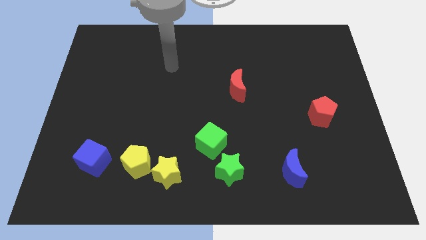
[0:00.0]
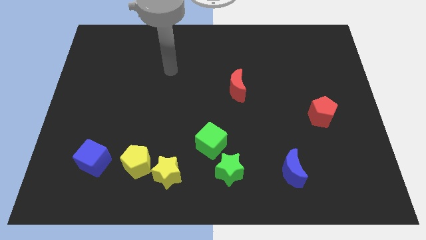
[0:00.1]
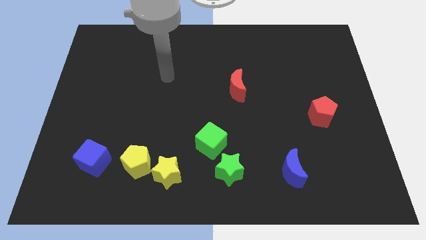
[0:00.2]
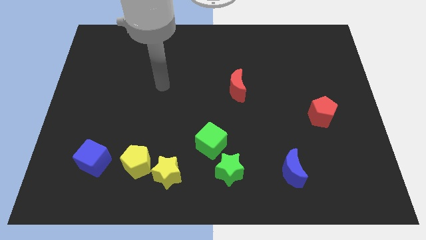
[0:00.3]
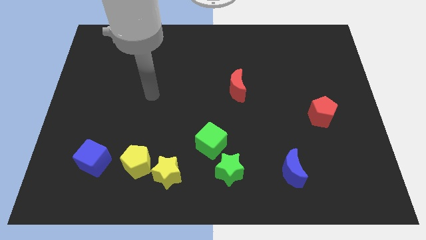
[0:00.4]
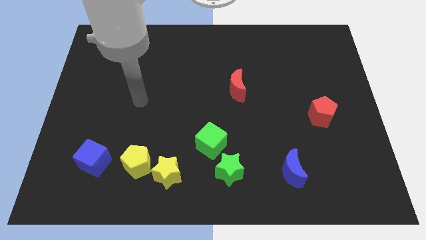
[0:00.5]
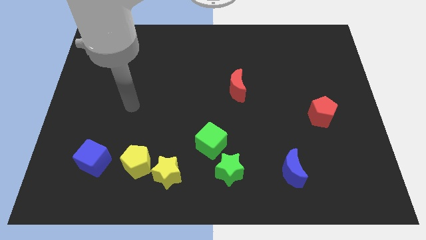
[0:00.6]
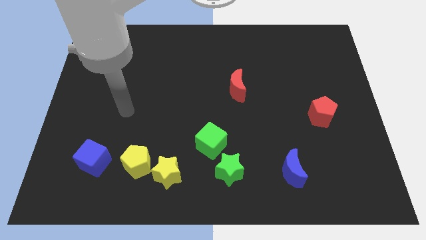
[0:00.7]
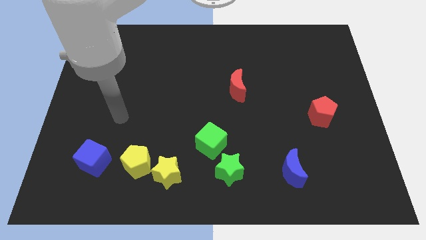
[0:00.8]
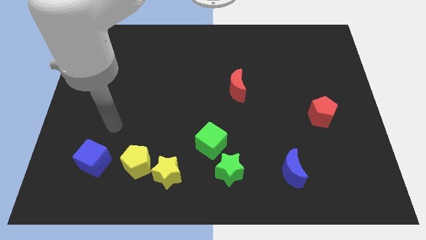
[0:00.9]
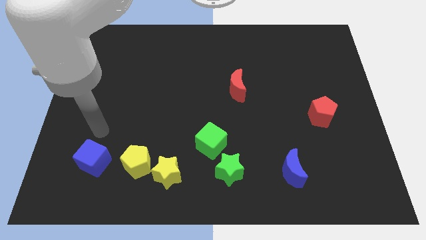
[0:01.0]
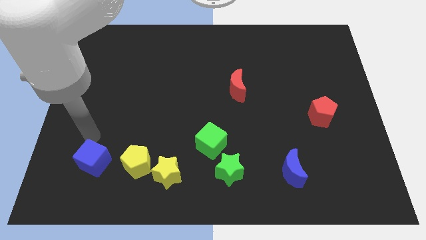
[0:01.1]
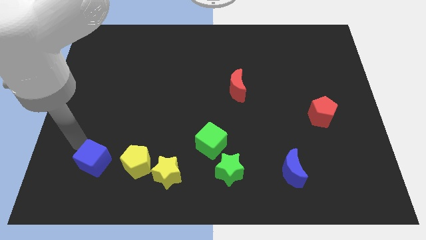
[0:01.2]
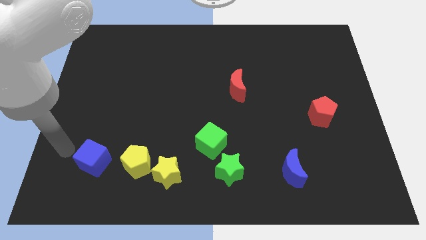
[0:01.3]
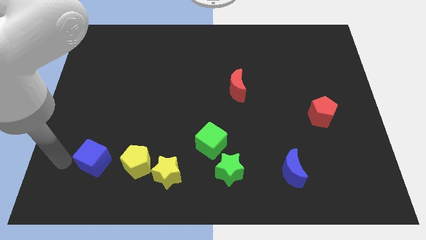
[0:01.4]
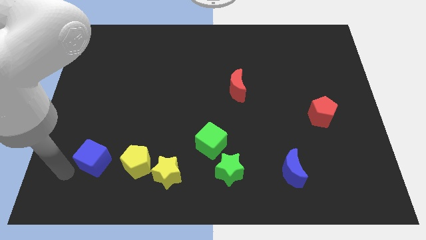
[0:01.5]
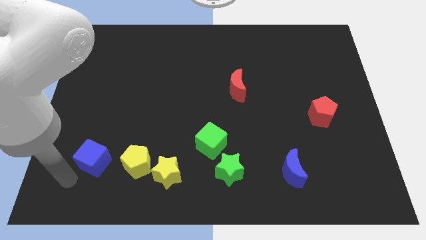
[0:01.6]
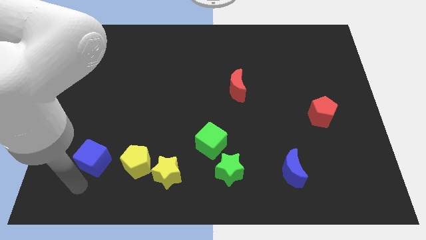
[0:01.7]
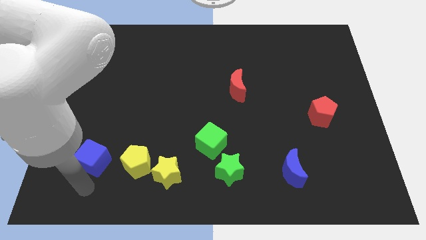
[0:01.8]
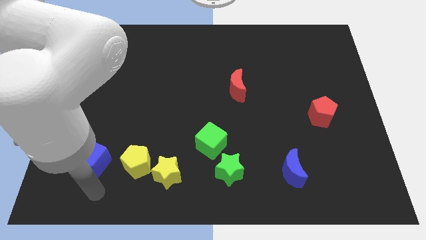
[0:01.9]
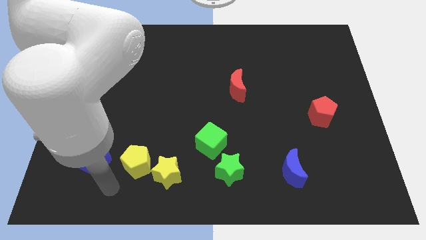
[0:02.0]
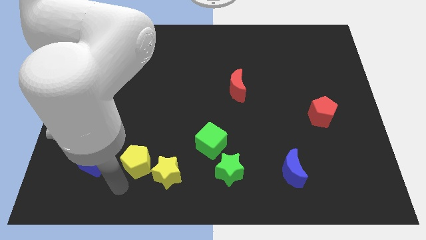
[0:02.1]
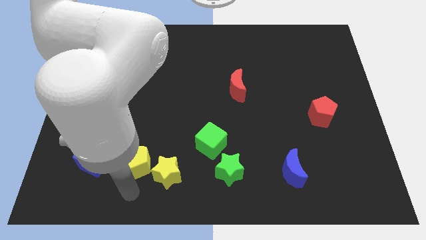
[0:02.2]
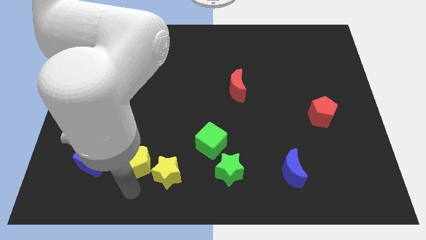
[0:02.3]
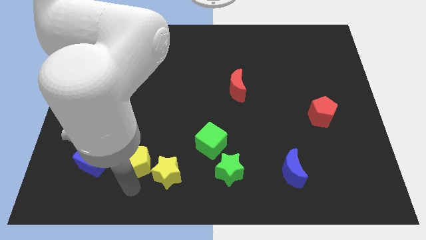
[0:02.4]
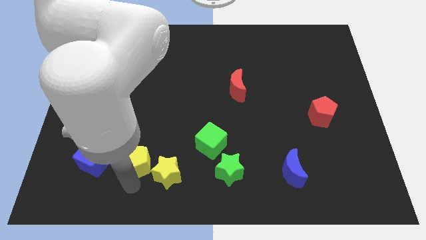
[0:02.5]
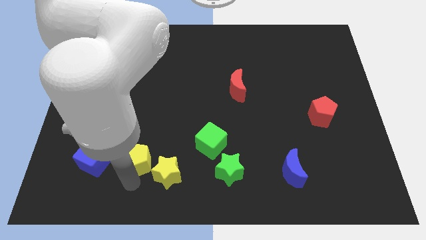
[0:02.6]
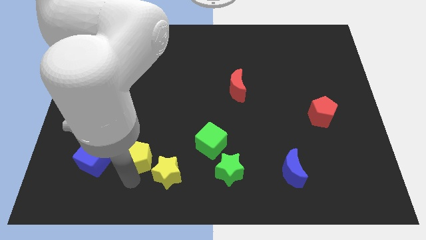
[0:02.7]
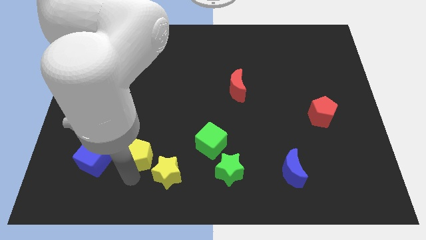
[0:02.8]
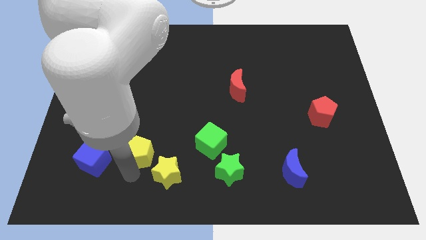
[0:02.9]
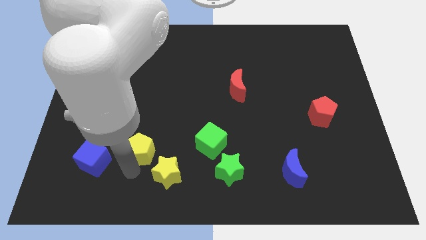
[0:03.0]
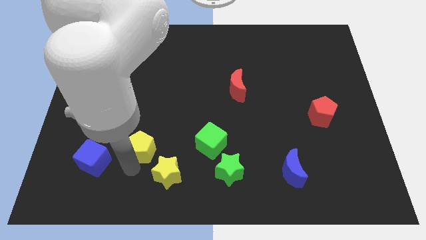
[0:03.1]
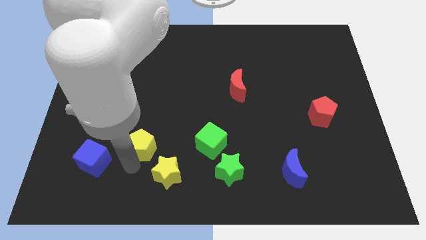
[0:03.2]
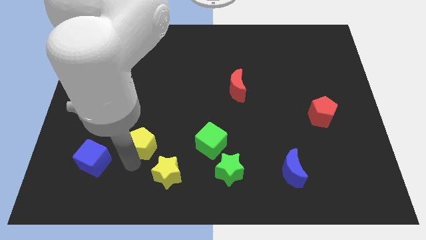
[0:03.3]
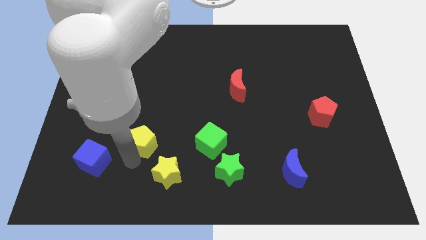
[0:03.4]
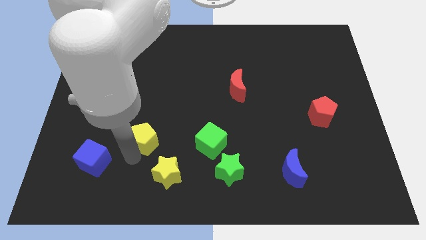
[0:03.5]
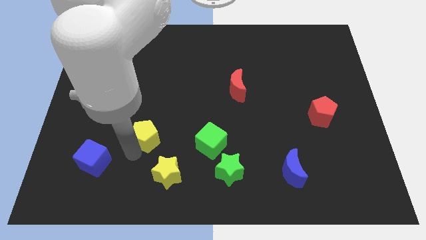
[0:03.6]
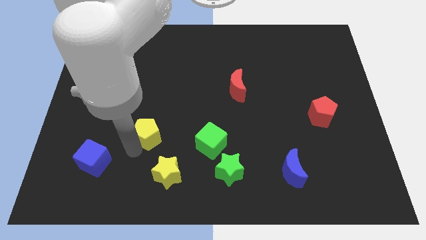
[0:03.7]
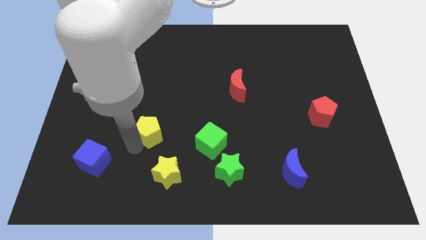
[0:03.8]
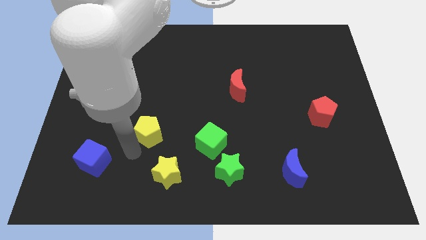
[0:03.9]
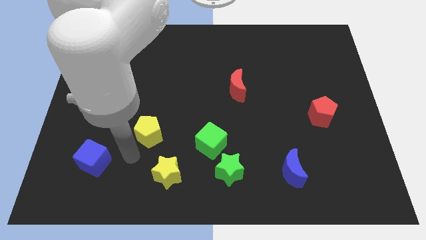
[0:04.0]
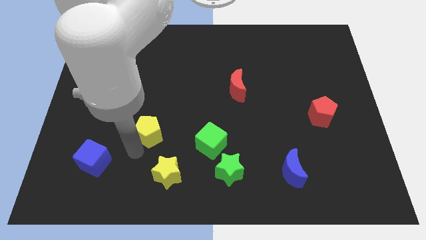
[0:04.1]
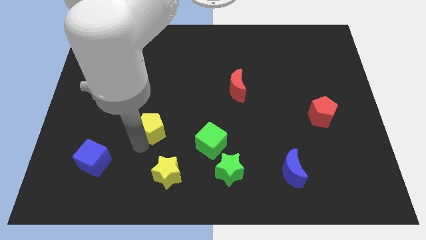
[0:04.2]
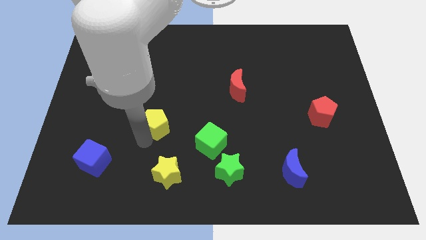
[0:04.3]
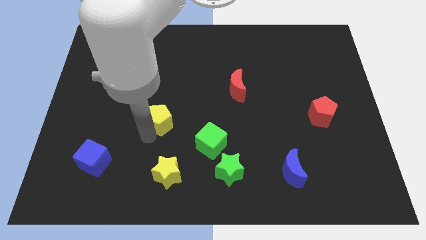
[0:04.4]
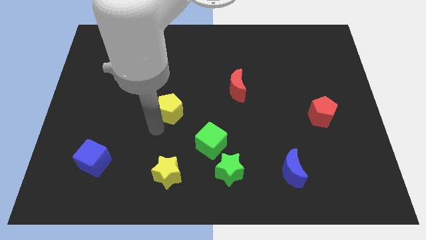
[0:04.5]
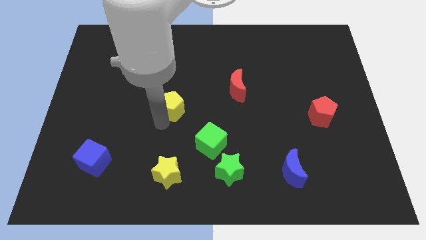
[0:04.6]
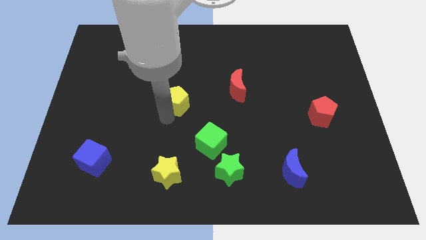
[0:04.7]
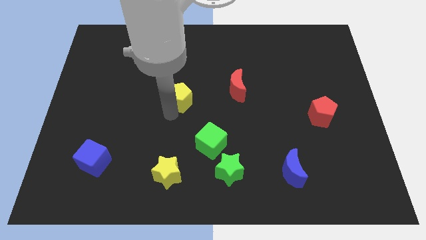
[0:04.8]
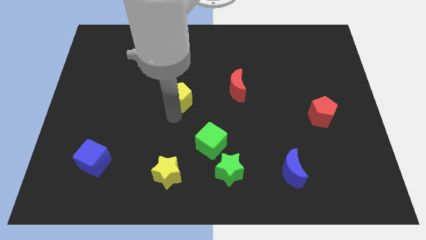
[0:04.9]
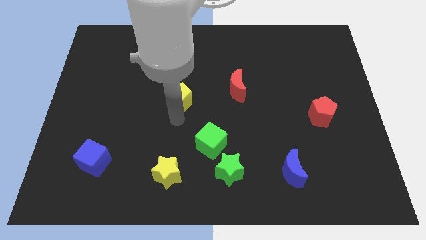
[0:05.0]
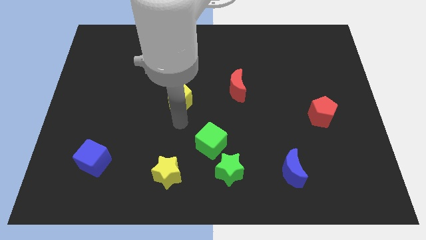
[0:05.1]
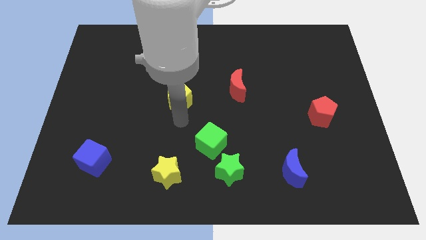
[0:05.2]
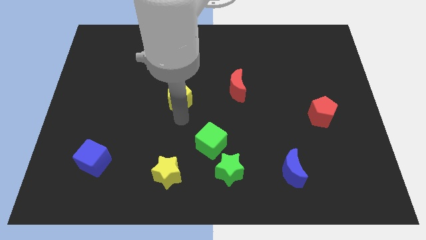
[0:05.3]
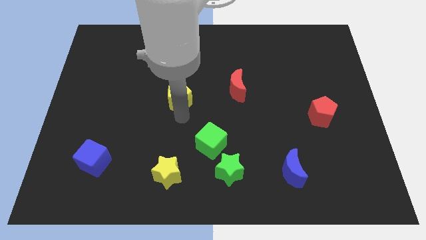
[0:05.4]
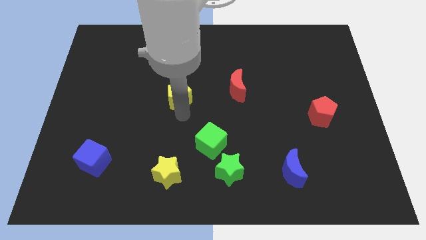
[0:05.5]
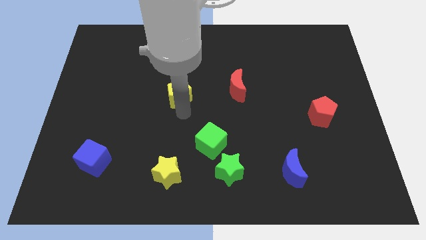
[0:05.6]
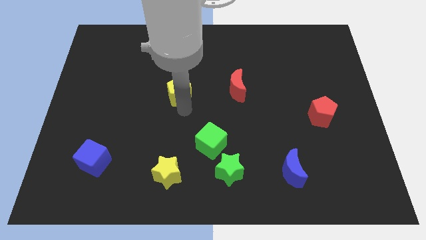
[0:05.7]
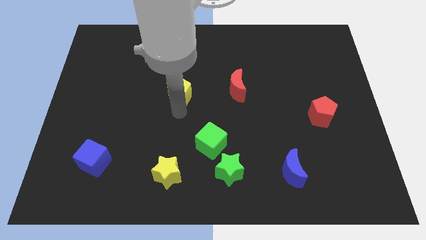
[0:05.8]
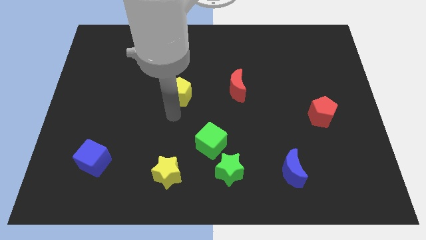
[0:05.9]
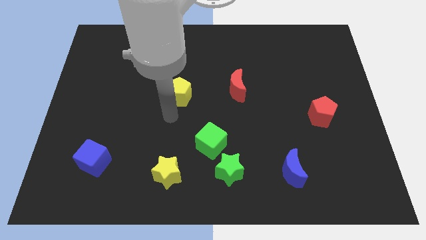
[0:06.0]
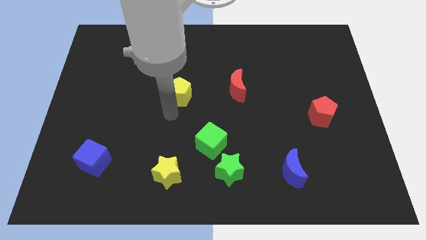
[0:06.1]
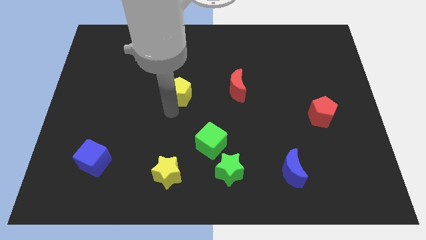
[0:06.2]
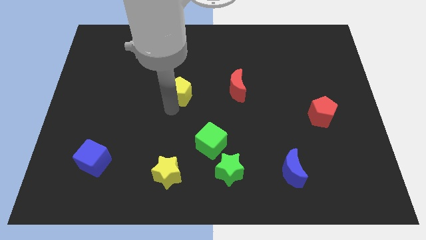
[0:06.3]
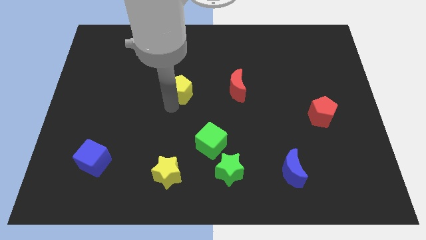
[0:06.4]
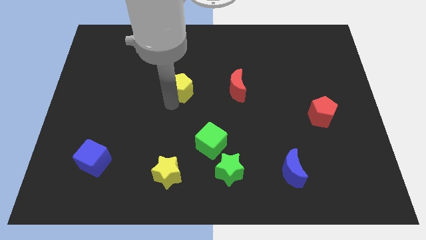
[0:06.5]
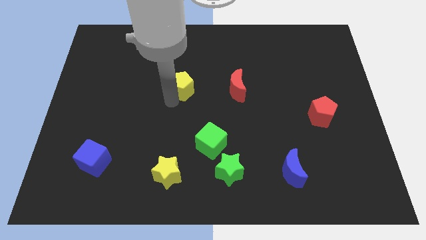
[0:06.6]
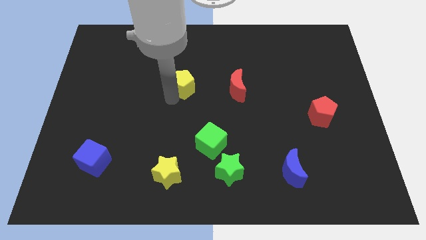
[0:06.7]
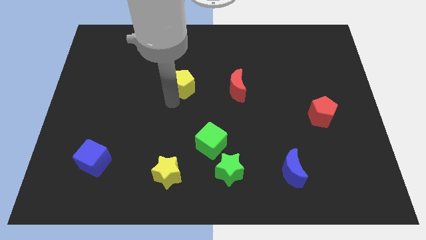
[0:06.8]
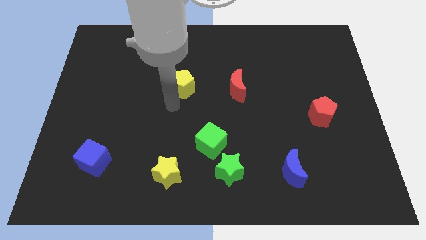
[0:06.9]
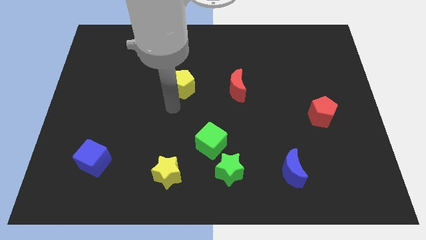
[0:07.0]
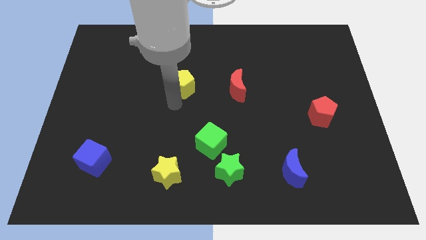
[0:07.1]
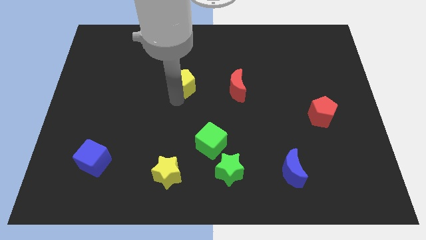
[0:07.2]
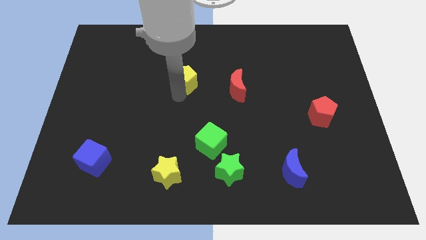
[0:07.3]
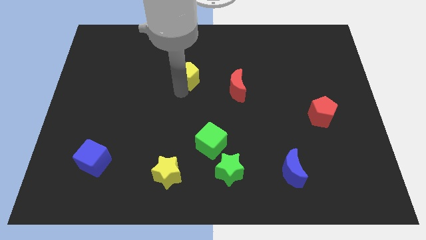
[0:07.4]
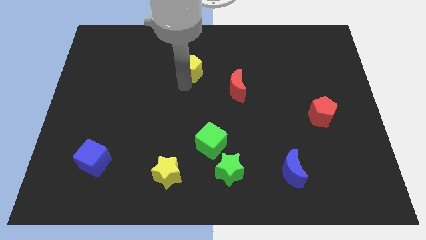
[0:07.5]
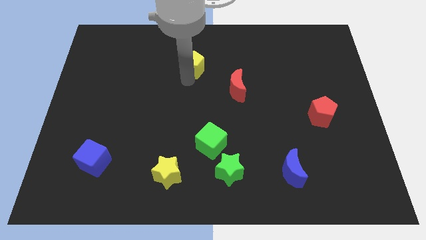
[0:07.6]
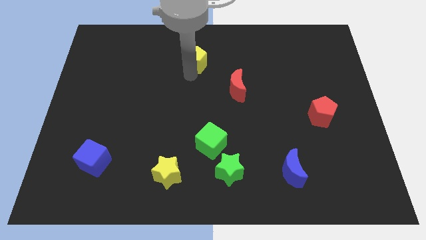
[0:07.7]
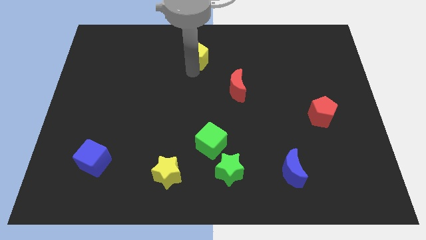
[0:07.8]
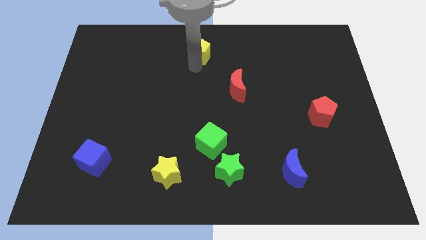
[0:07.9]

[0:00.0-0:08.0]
move the yellow pentagon to the top
